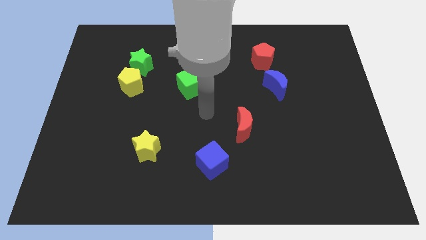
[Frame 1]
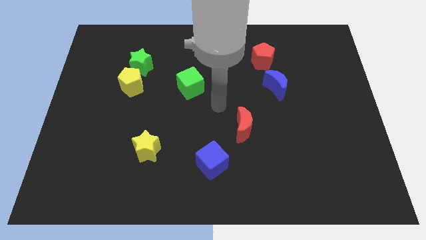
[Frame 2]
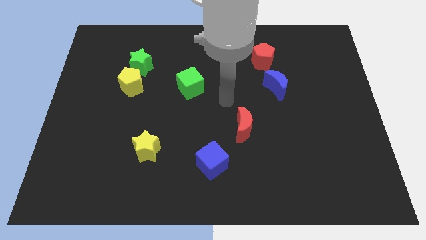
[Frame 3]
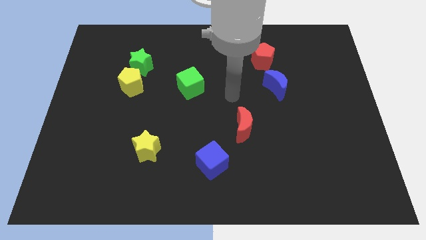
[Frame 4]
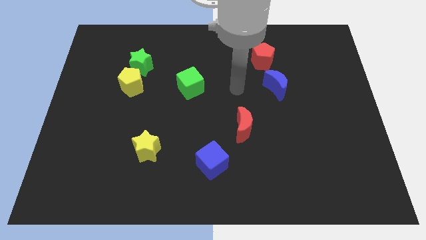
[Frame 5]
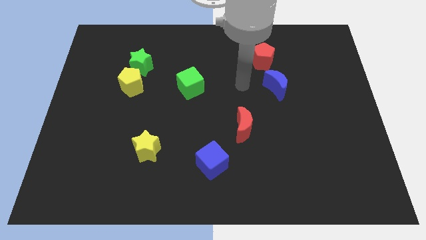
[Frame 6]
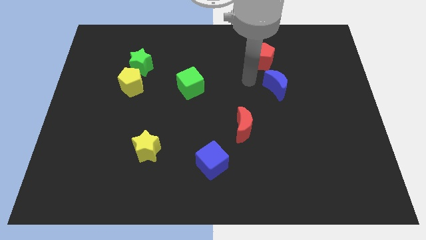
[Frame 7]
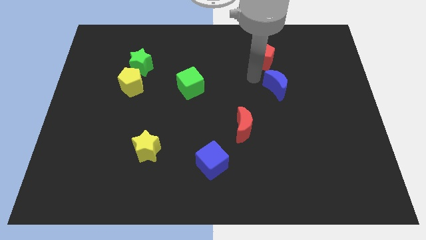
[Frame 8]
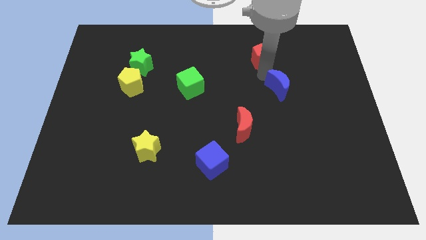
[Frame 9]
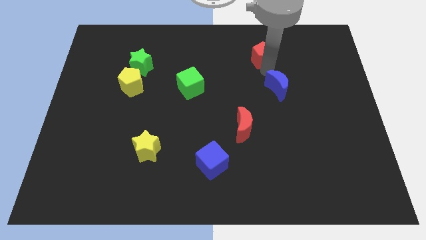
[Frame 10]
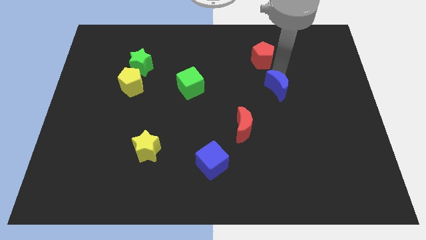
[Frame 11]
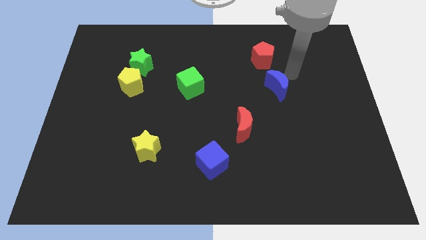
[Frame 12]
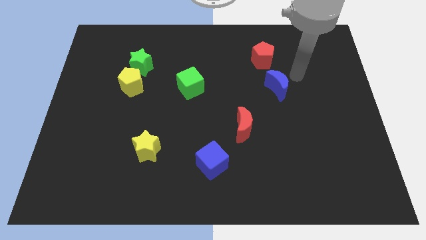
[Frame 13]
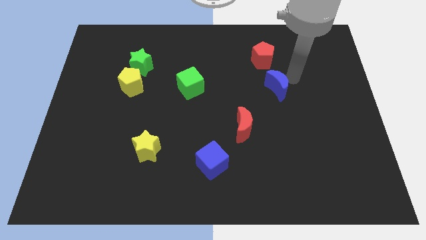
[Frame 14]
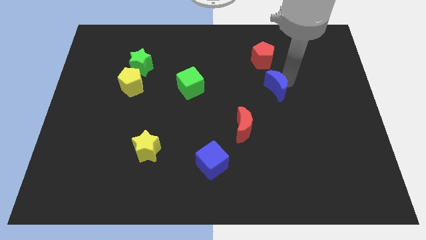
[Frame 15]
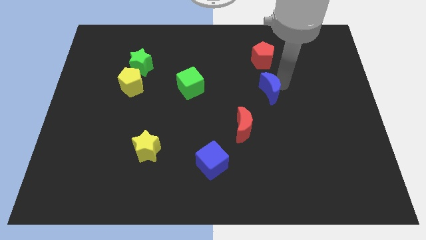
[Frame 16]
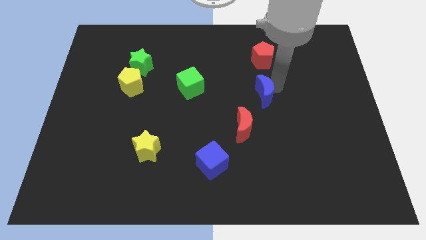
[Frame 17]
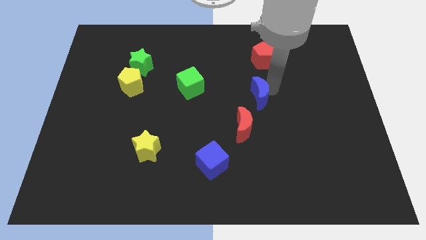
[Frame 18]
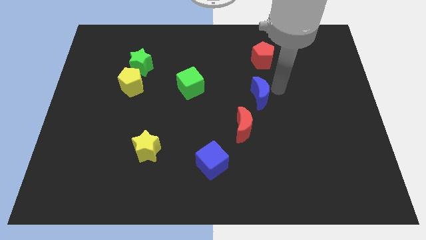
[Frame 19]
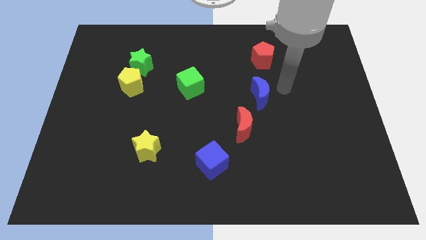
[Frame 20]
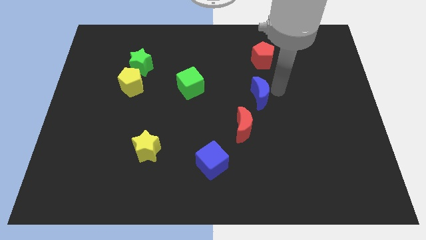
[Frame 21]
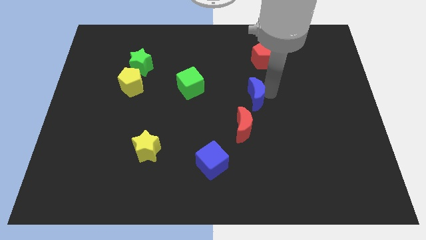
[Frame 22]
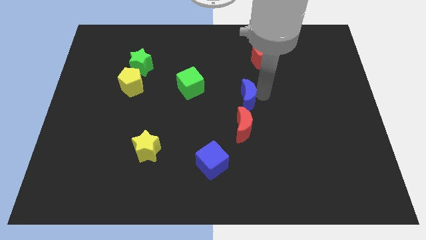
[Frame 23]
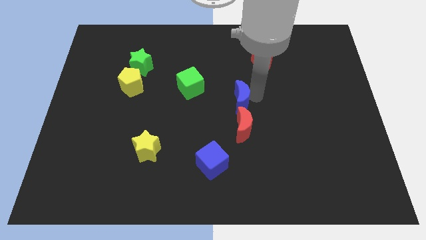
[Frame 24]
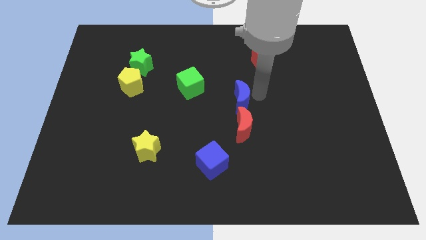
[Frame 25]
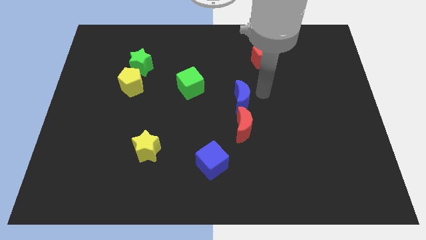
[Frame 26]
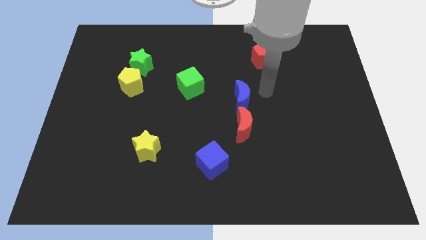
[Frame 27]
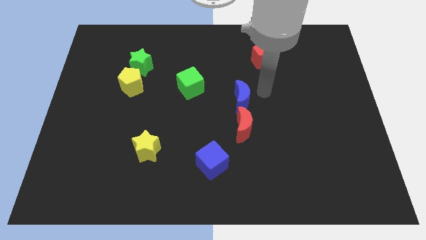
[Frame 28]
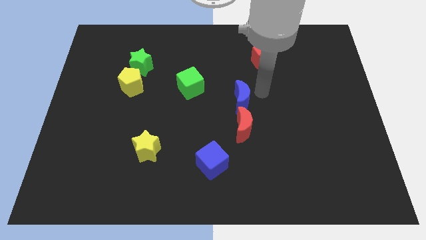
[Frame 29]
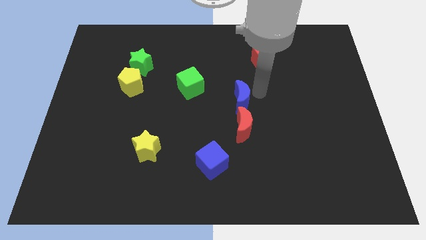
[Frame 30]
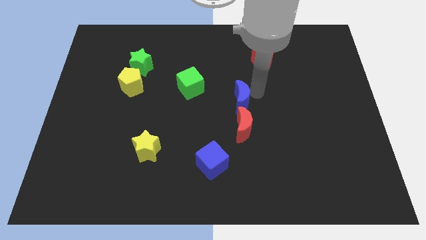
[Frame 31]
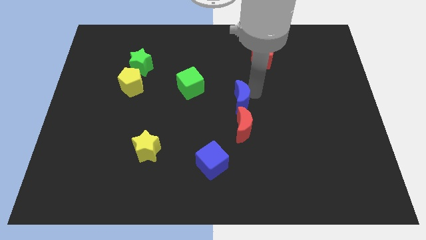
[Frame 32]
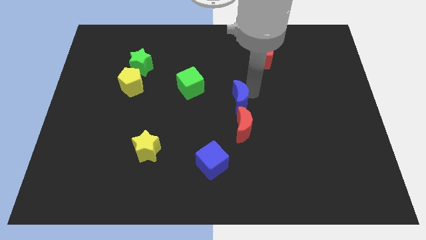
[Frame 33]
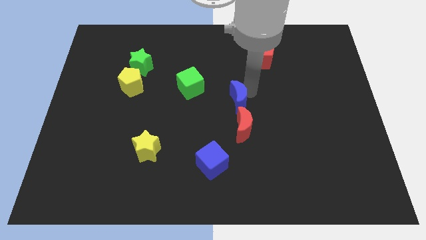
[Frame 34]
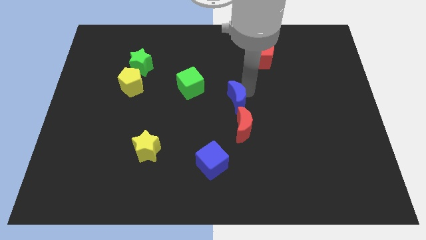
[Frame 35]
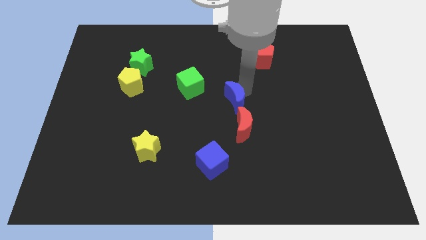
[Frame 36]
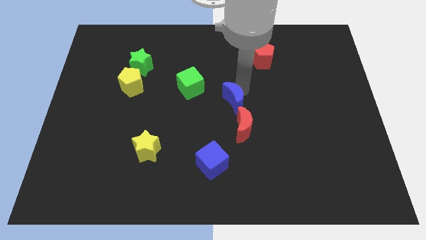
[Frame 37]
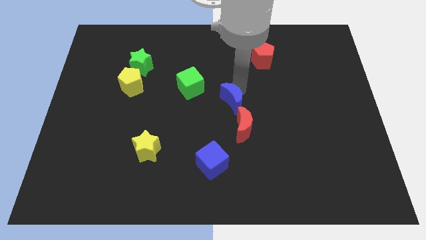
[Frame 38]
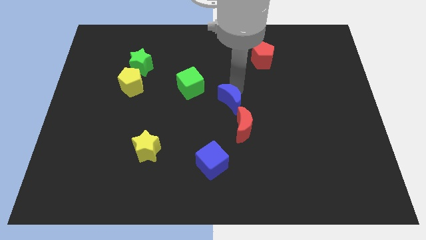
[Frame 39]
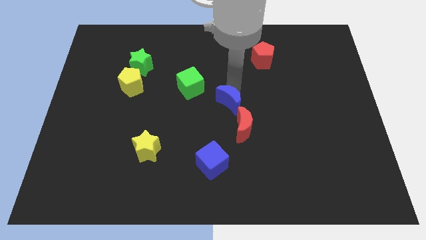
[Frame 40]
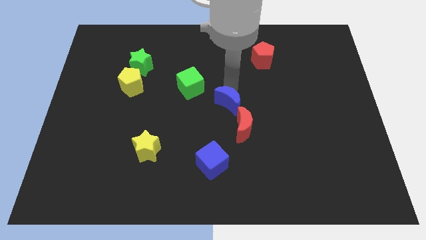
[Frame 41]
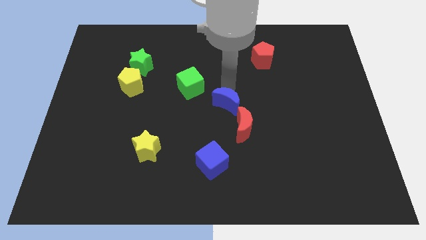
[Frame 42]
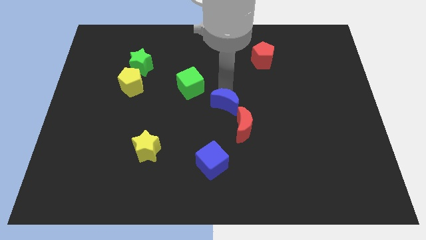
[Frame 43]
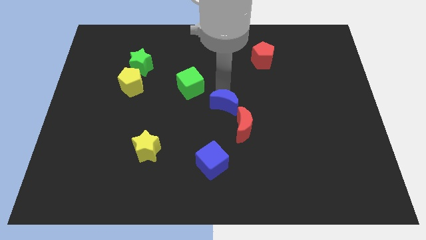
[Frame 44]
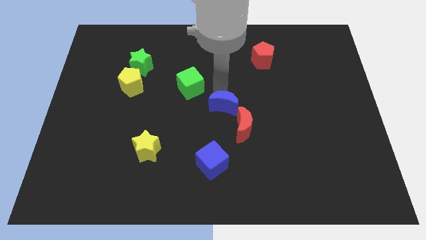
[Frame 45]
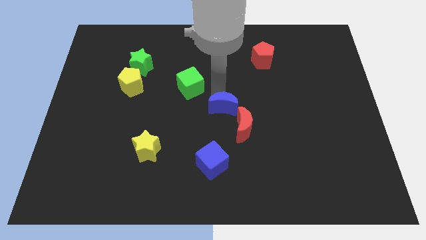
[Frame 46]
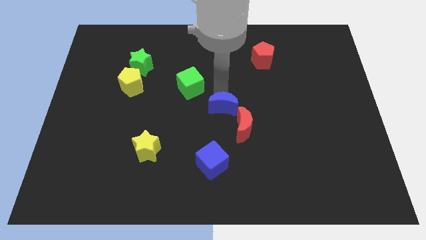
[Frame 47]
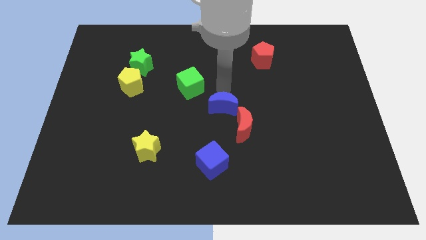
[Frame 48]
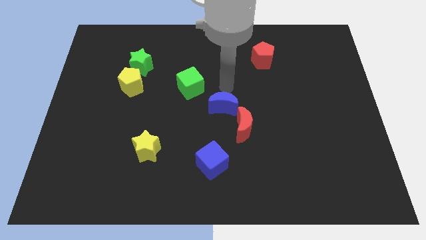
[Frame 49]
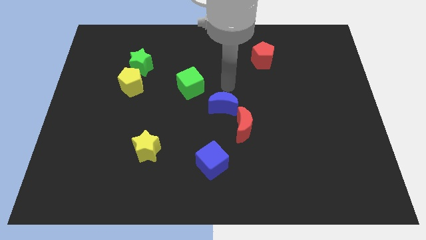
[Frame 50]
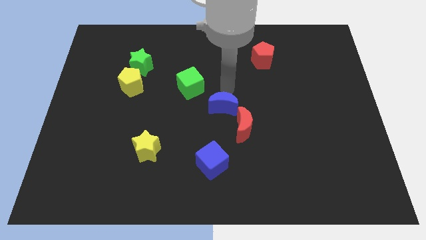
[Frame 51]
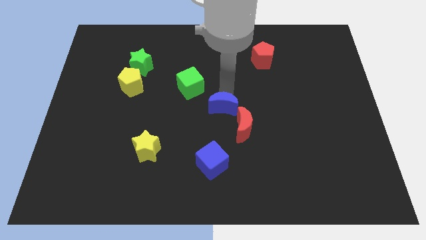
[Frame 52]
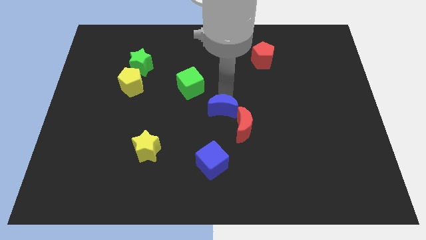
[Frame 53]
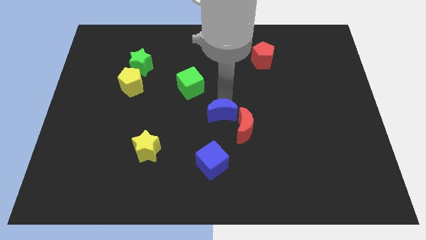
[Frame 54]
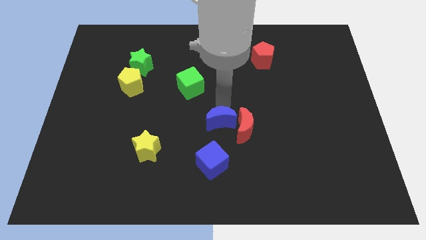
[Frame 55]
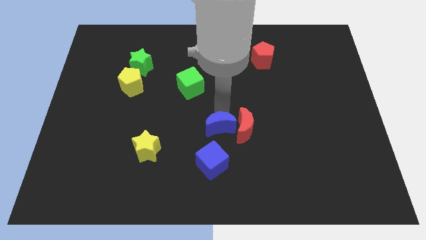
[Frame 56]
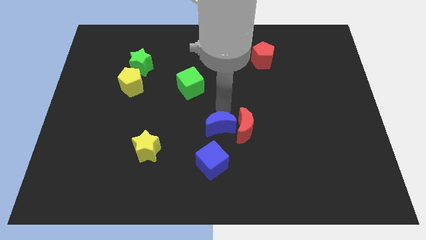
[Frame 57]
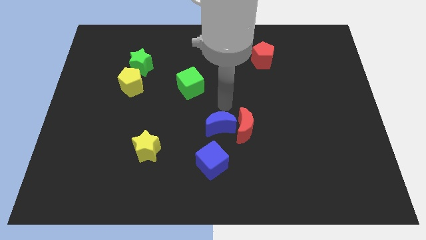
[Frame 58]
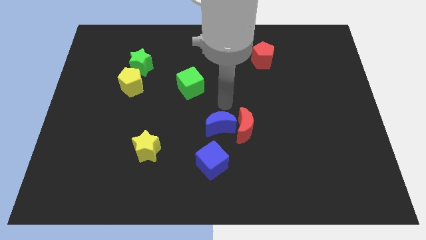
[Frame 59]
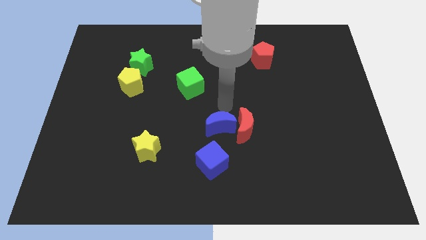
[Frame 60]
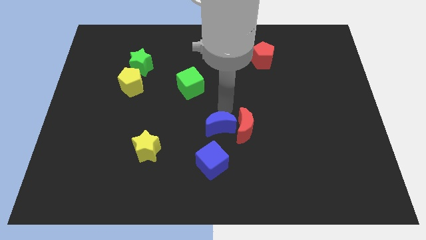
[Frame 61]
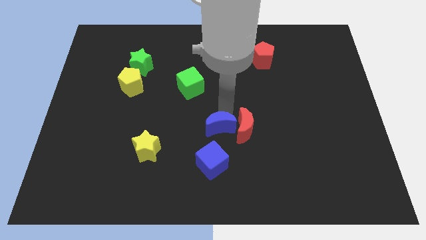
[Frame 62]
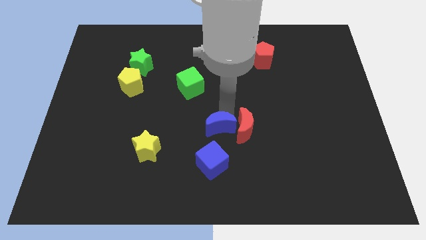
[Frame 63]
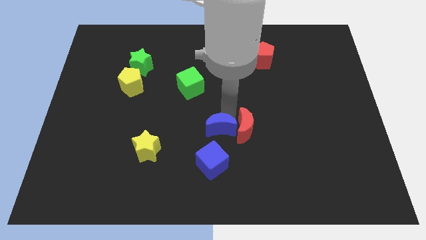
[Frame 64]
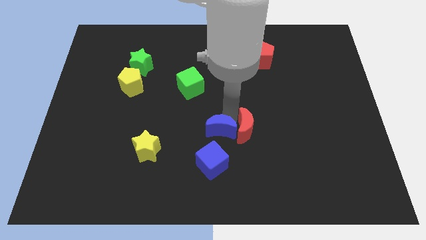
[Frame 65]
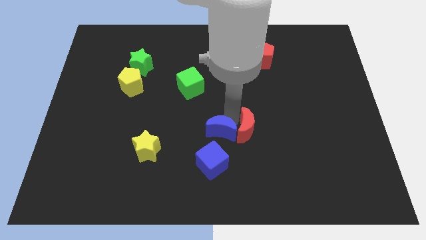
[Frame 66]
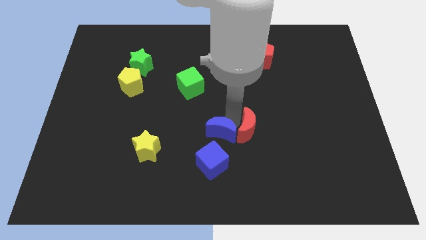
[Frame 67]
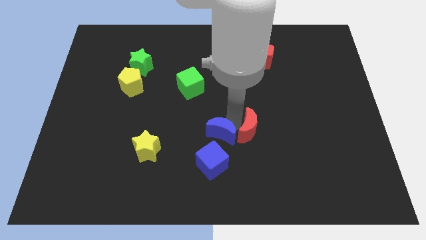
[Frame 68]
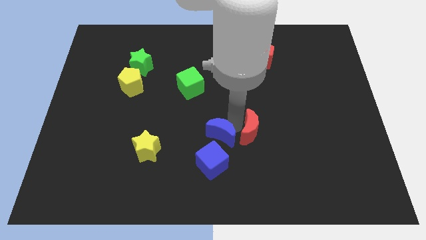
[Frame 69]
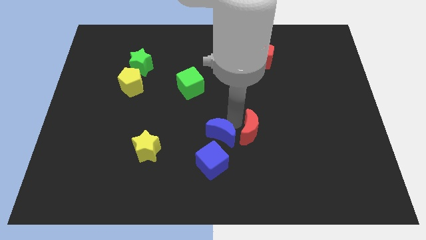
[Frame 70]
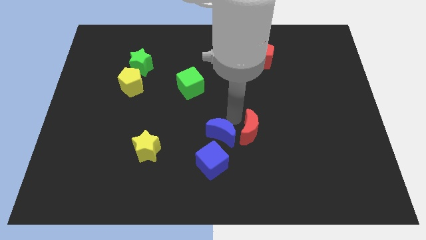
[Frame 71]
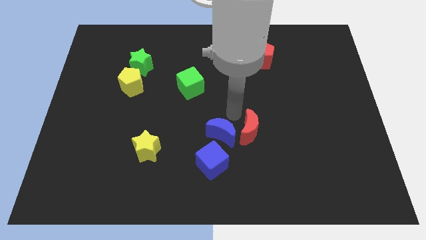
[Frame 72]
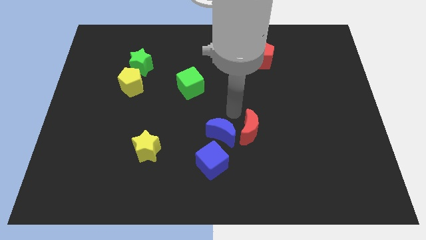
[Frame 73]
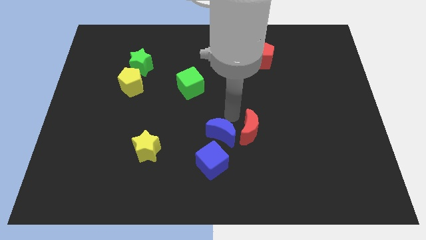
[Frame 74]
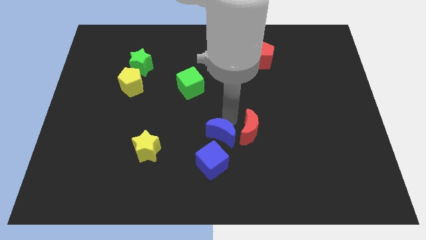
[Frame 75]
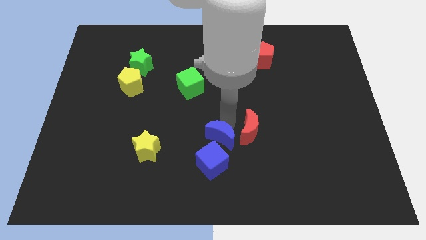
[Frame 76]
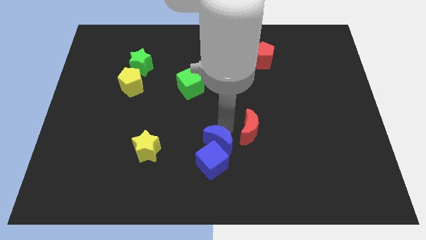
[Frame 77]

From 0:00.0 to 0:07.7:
push the blue moon to the blue cube

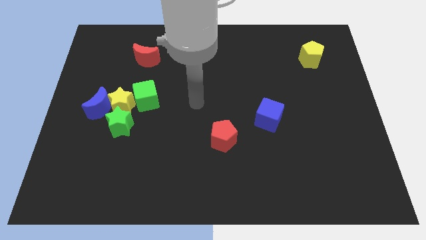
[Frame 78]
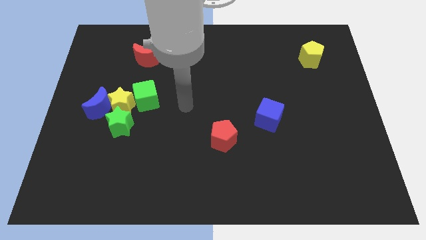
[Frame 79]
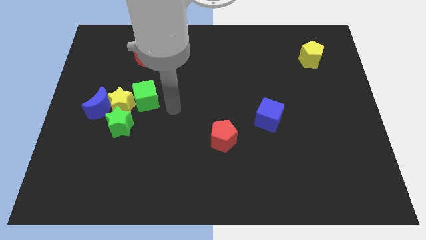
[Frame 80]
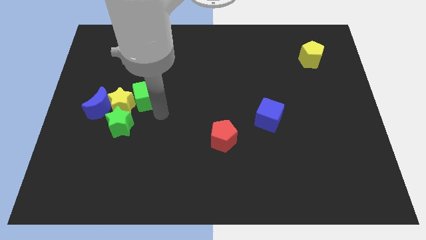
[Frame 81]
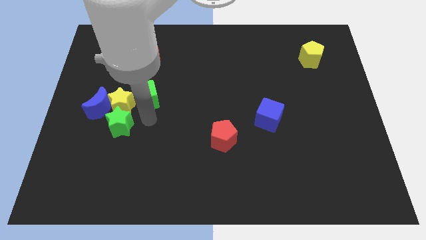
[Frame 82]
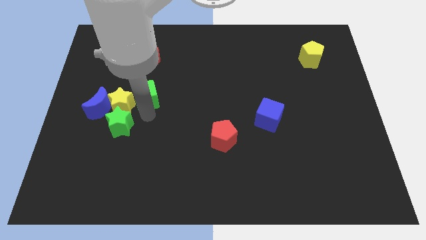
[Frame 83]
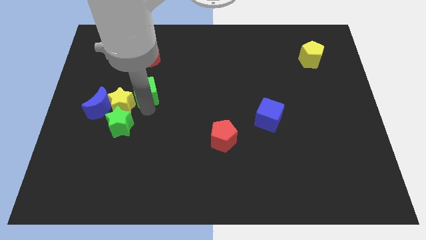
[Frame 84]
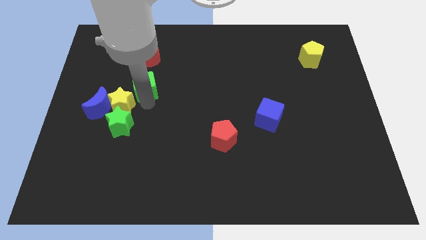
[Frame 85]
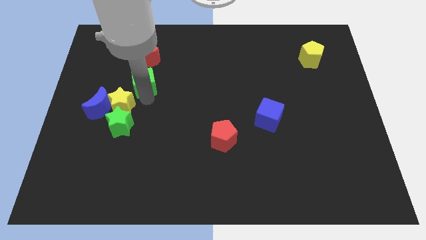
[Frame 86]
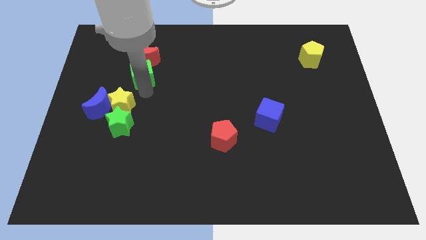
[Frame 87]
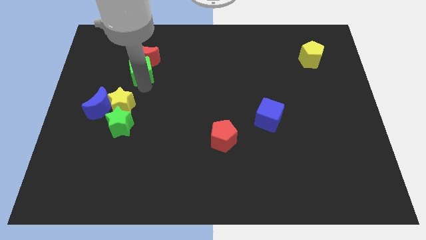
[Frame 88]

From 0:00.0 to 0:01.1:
slide the green cube close to the red moon
